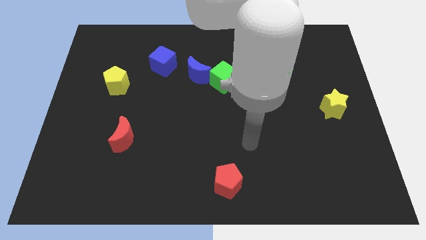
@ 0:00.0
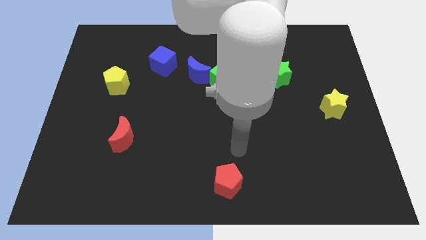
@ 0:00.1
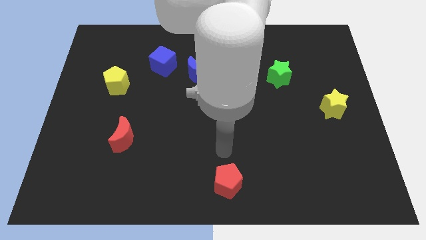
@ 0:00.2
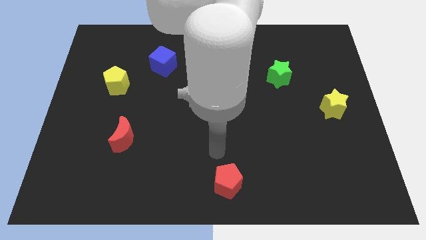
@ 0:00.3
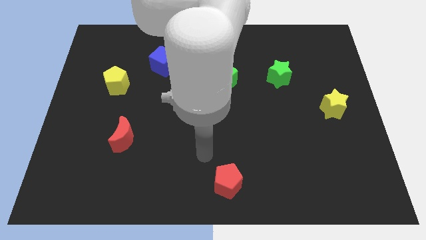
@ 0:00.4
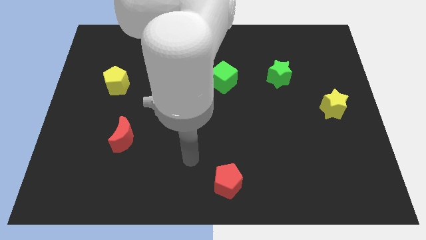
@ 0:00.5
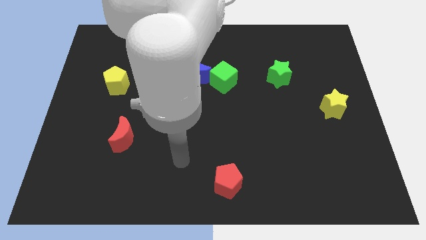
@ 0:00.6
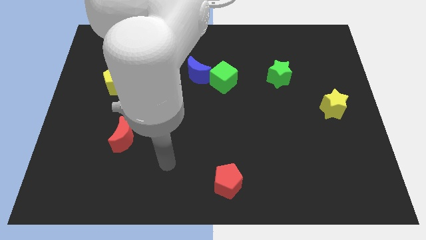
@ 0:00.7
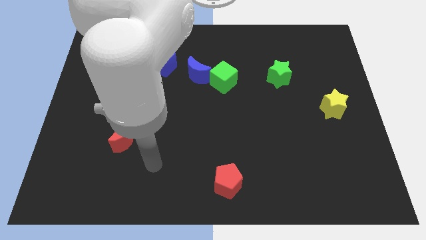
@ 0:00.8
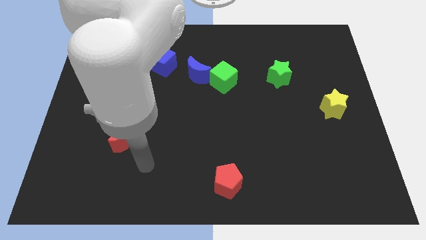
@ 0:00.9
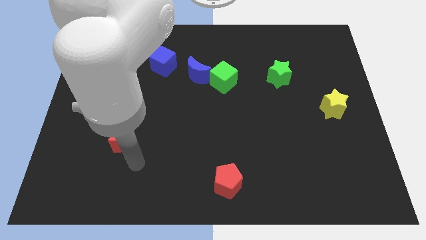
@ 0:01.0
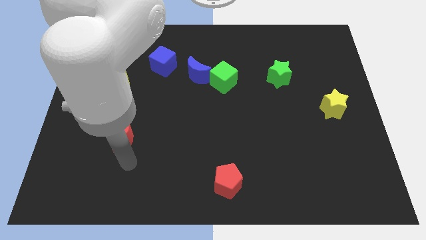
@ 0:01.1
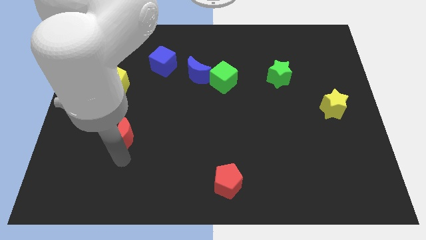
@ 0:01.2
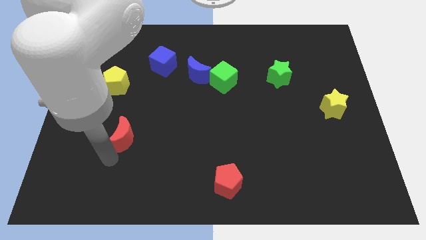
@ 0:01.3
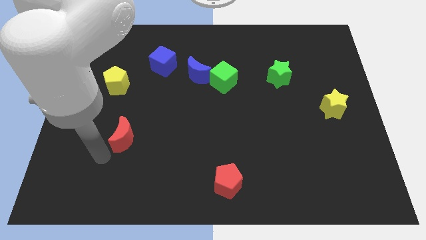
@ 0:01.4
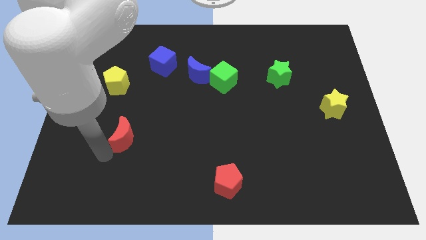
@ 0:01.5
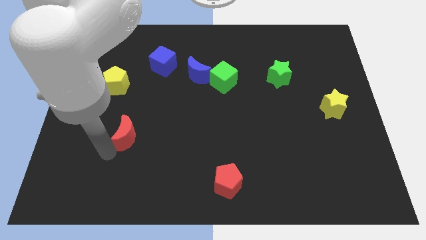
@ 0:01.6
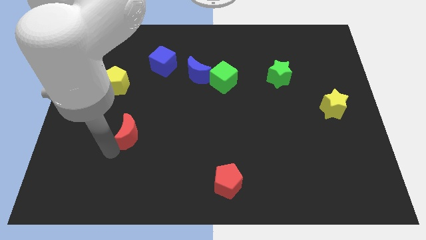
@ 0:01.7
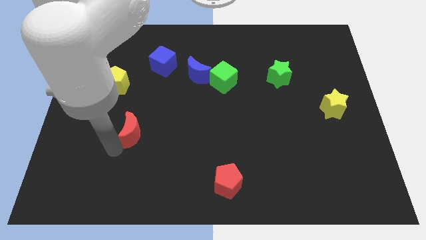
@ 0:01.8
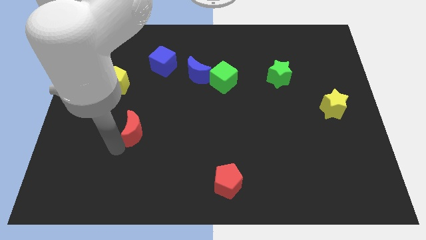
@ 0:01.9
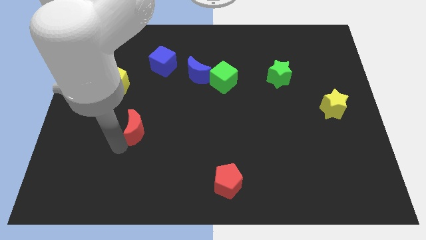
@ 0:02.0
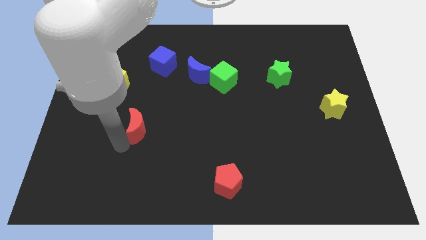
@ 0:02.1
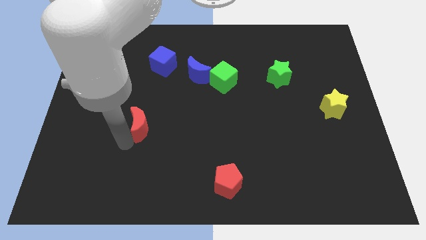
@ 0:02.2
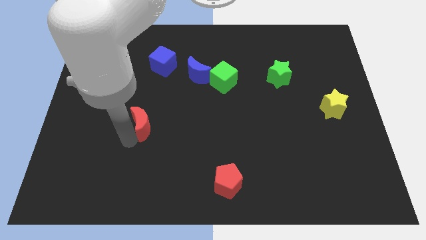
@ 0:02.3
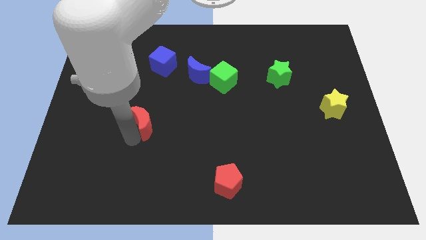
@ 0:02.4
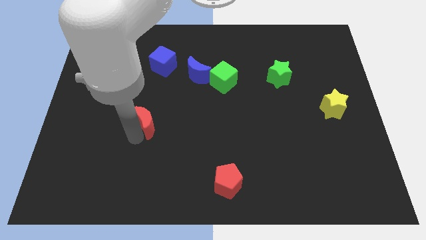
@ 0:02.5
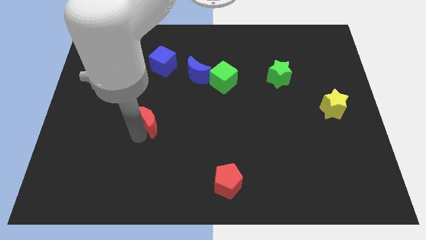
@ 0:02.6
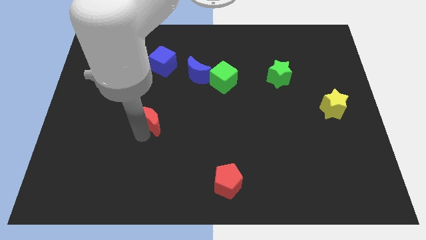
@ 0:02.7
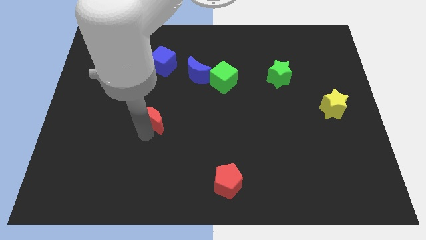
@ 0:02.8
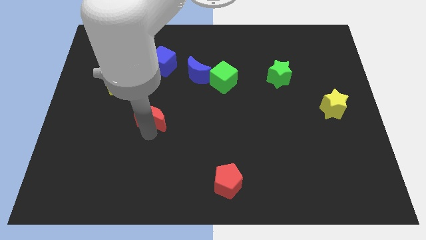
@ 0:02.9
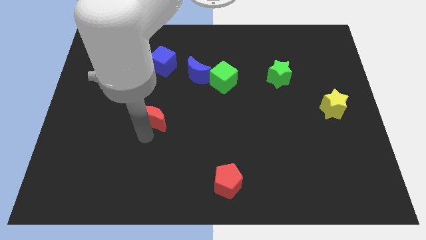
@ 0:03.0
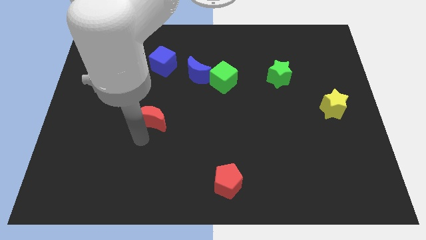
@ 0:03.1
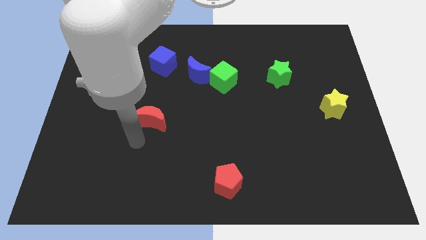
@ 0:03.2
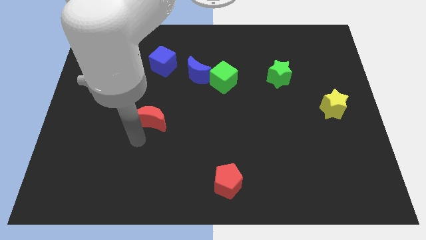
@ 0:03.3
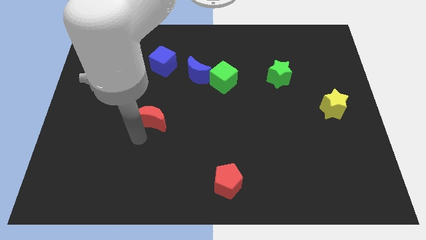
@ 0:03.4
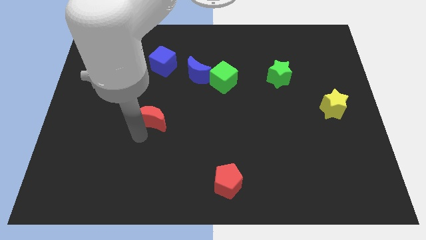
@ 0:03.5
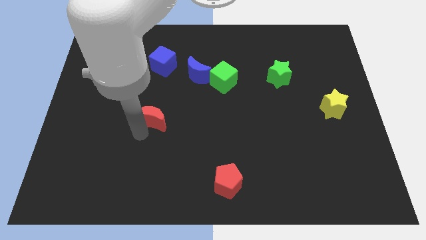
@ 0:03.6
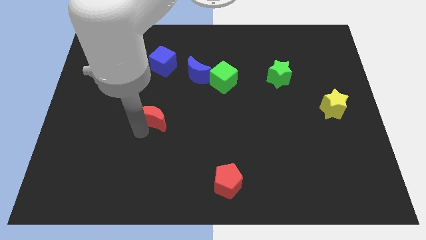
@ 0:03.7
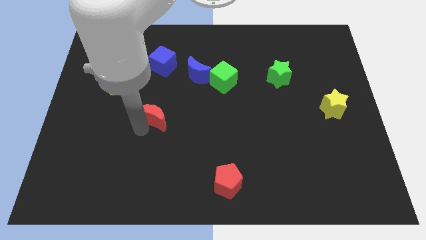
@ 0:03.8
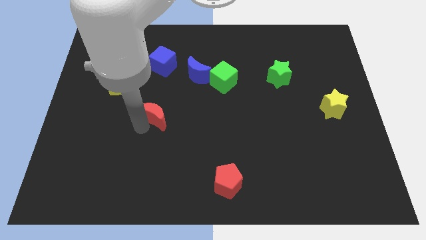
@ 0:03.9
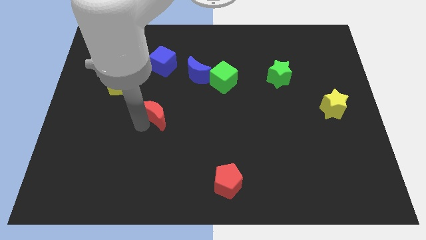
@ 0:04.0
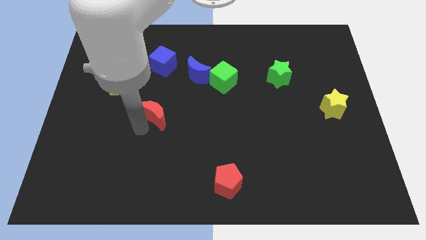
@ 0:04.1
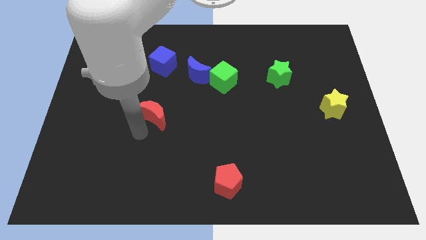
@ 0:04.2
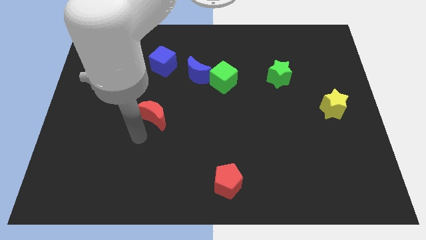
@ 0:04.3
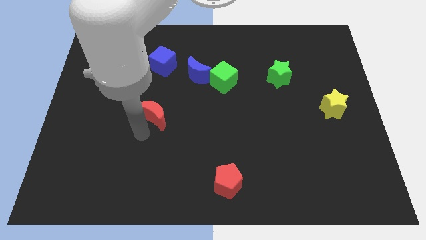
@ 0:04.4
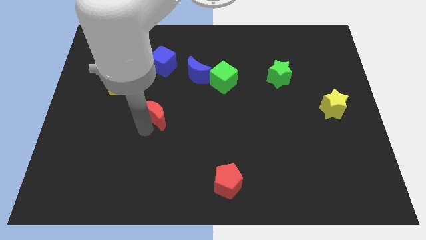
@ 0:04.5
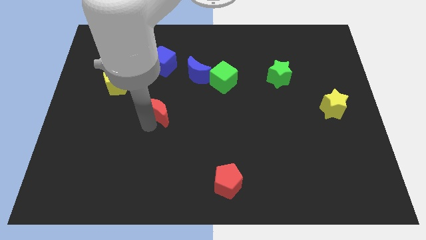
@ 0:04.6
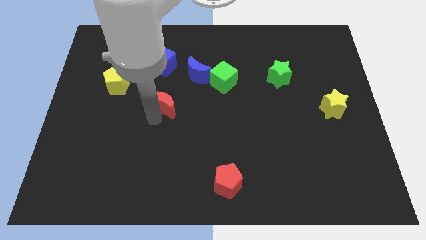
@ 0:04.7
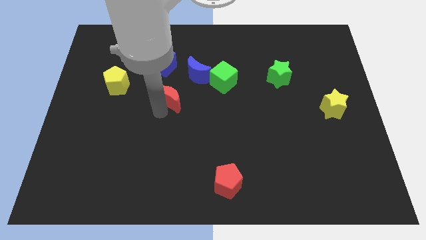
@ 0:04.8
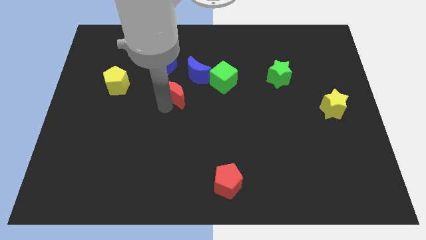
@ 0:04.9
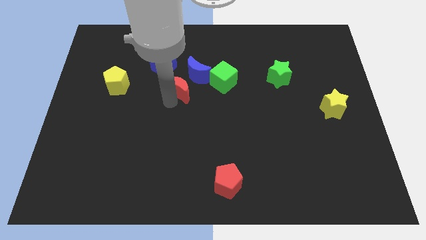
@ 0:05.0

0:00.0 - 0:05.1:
move the red moon just left of the green cube

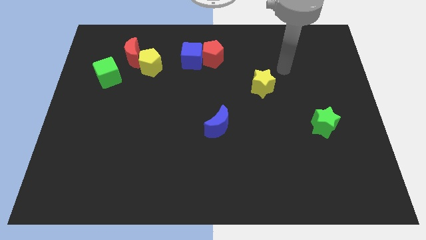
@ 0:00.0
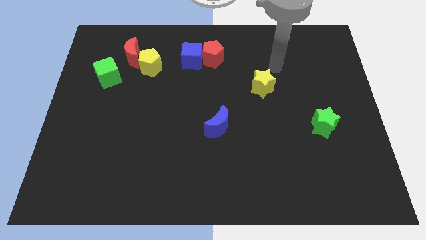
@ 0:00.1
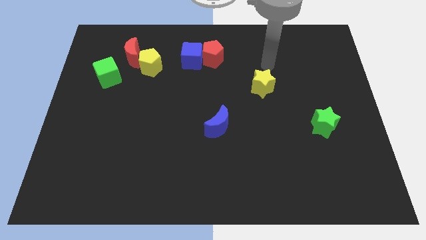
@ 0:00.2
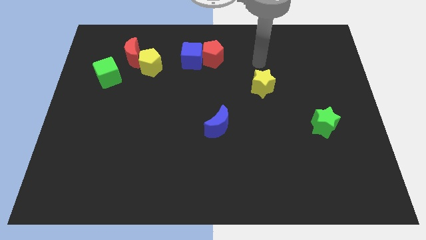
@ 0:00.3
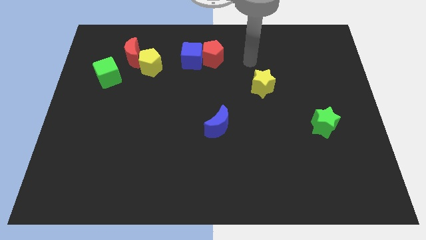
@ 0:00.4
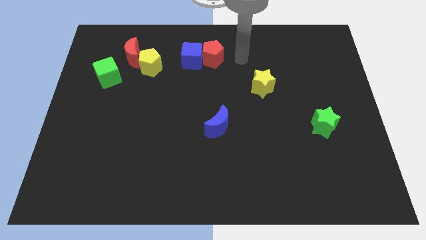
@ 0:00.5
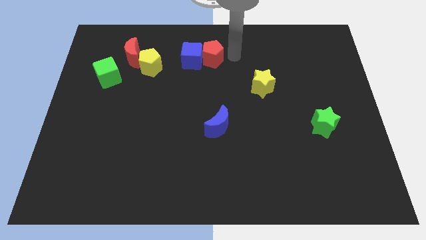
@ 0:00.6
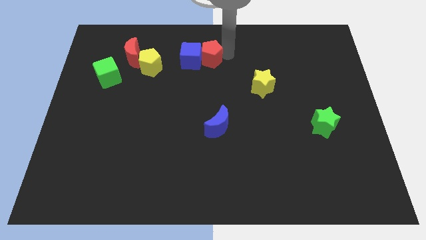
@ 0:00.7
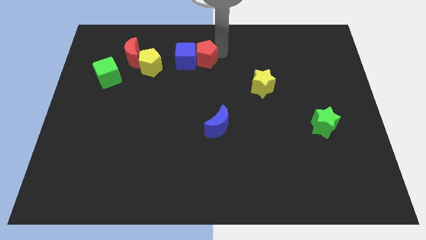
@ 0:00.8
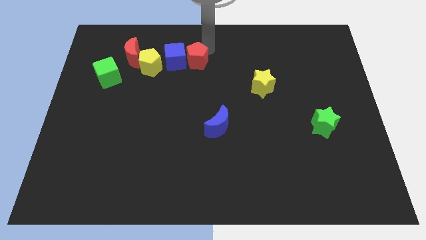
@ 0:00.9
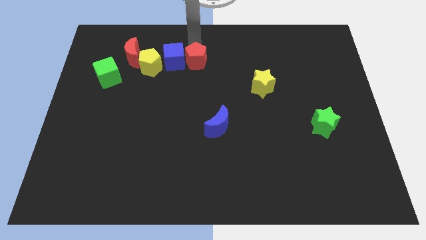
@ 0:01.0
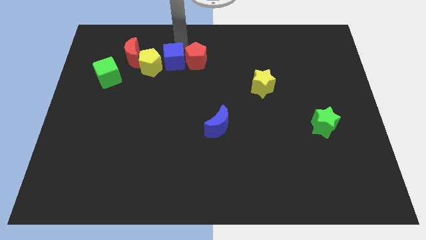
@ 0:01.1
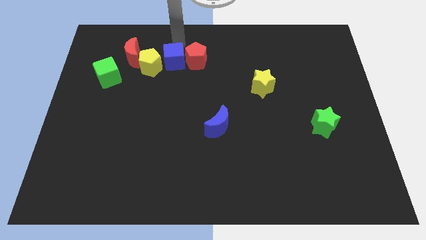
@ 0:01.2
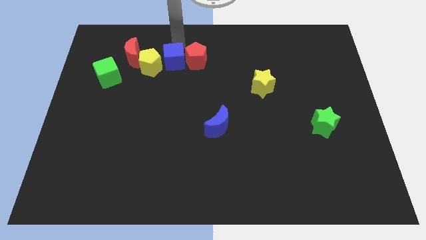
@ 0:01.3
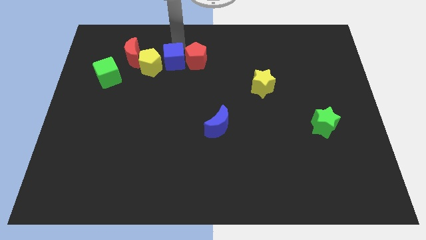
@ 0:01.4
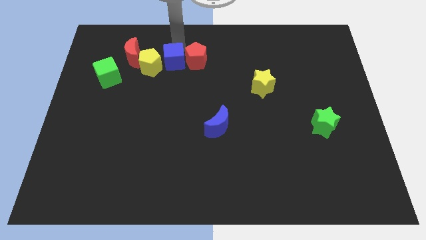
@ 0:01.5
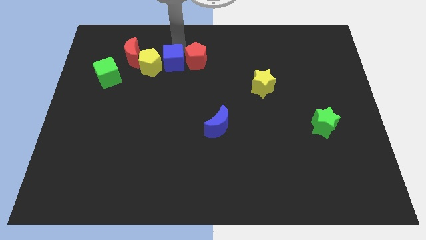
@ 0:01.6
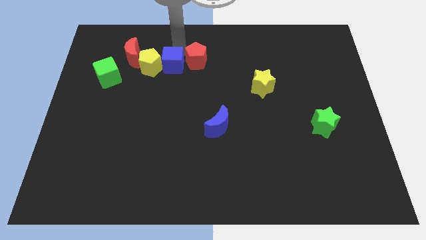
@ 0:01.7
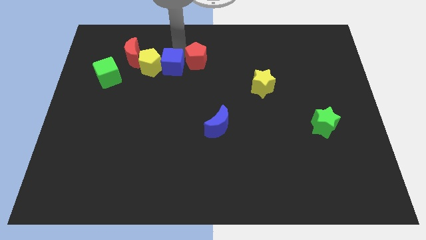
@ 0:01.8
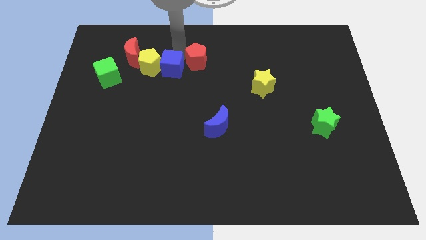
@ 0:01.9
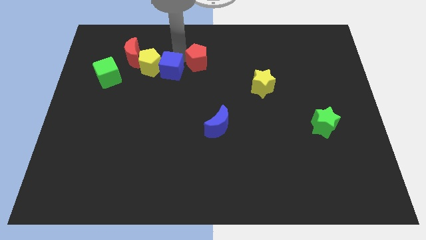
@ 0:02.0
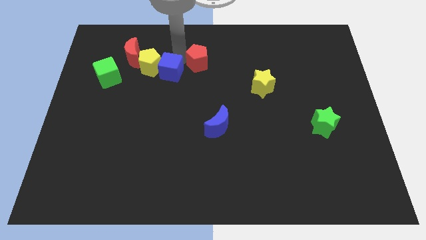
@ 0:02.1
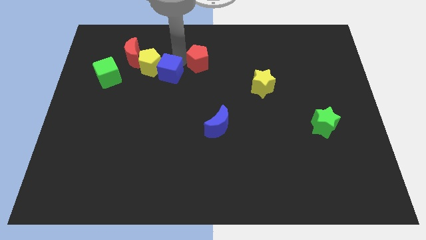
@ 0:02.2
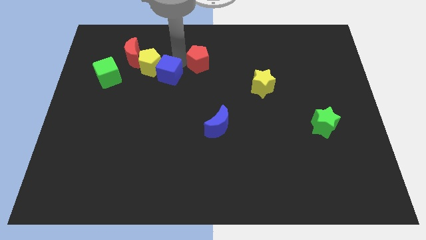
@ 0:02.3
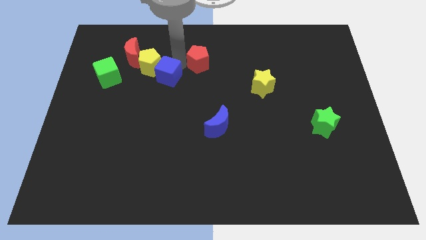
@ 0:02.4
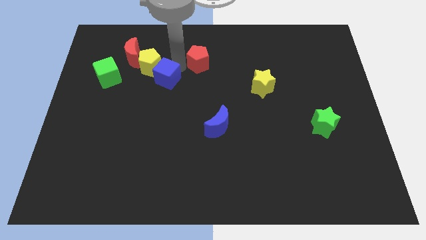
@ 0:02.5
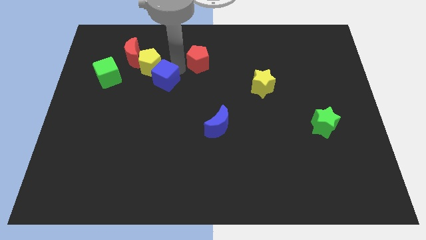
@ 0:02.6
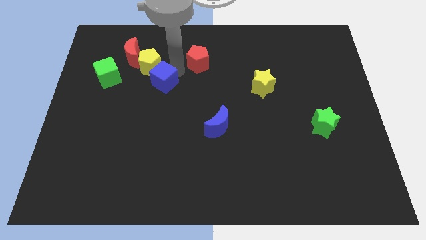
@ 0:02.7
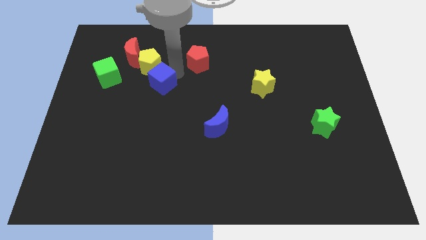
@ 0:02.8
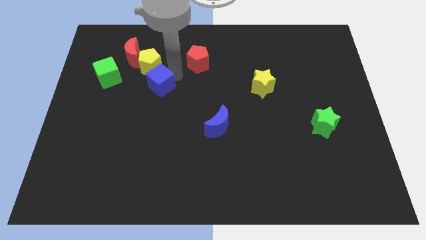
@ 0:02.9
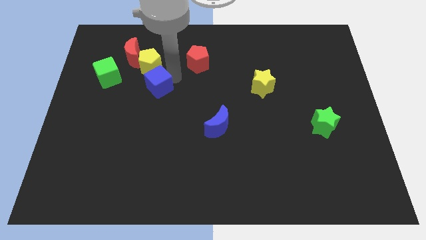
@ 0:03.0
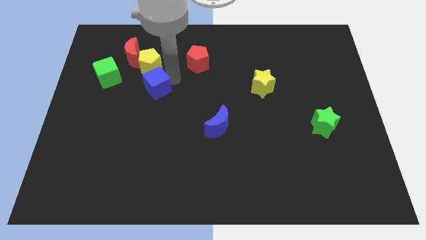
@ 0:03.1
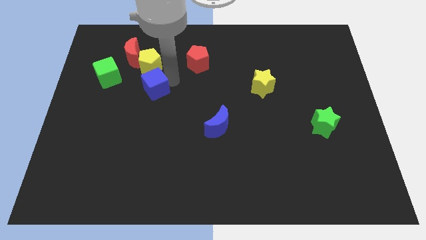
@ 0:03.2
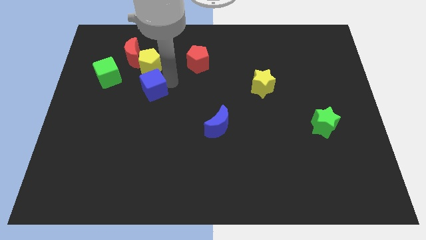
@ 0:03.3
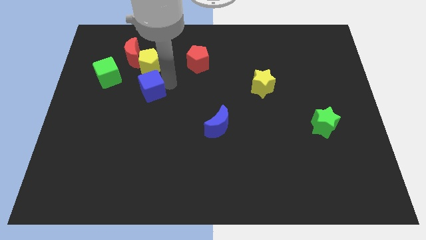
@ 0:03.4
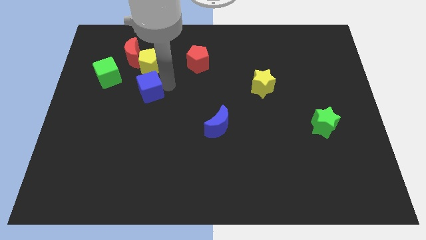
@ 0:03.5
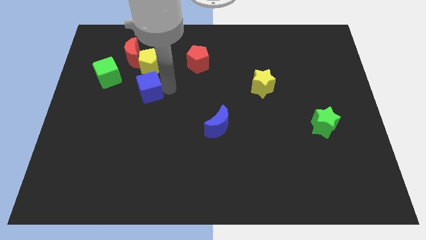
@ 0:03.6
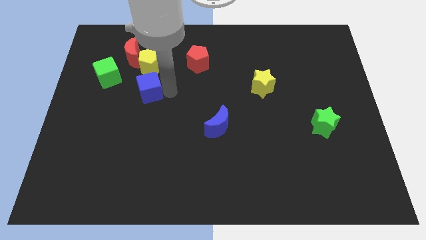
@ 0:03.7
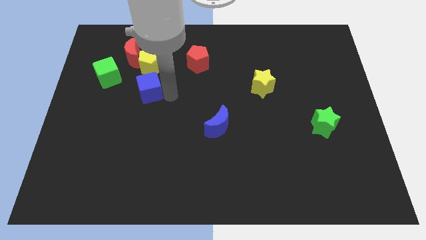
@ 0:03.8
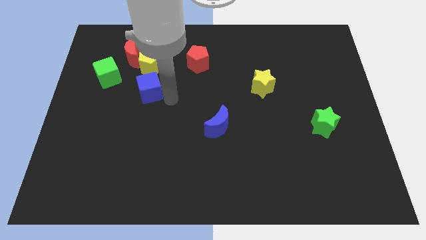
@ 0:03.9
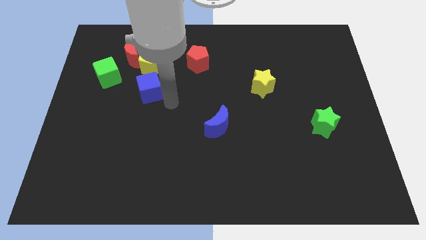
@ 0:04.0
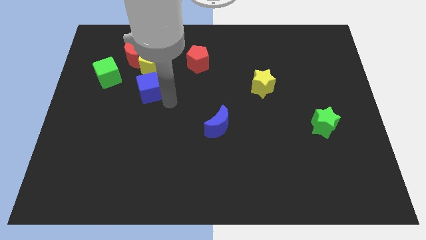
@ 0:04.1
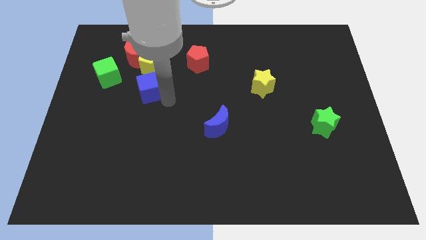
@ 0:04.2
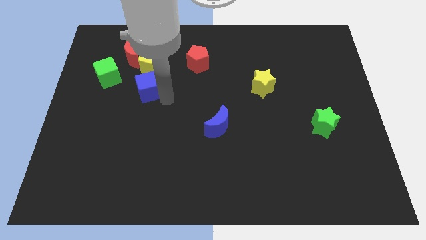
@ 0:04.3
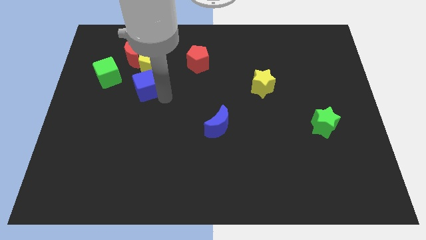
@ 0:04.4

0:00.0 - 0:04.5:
put the blue cube diagonally down and to the right of the green cube
